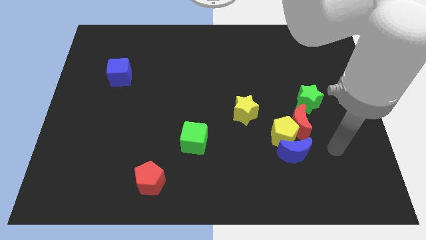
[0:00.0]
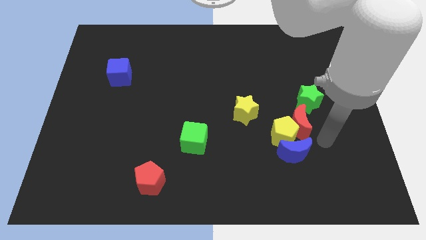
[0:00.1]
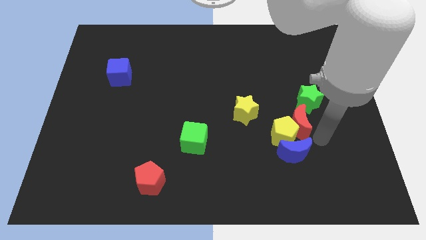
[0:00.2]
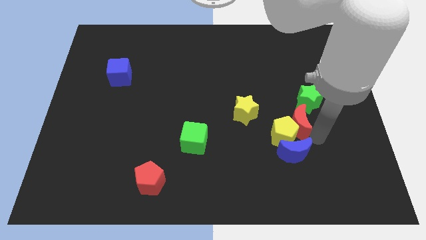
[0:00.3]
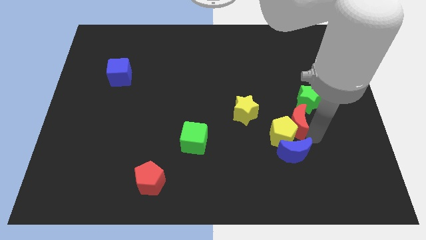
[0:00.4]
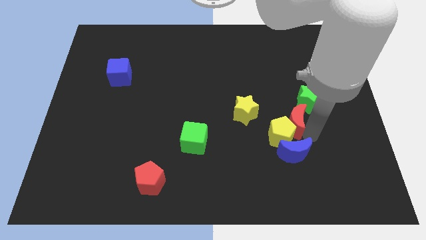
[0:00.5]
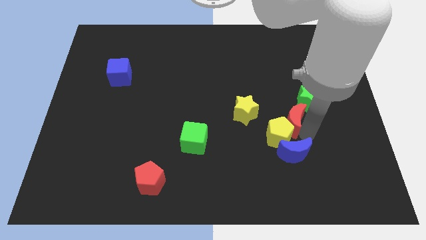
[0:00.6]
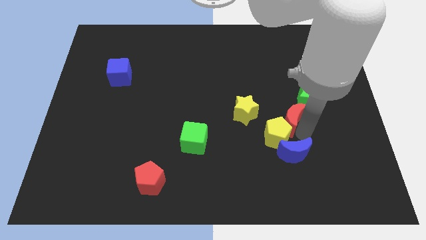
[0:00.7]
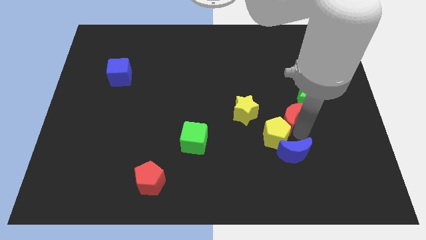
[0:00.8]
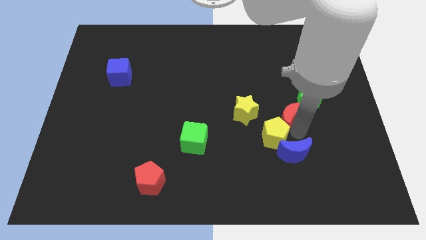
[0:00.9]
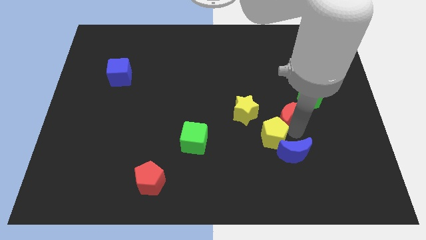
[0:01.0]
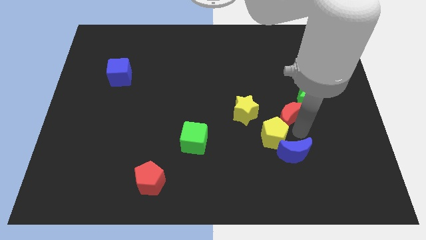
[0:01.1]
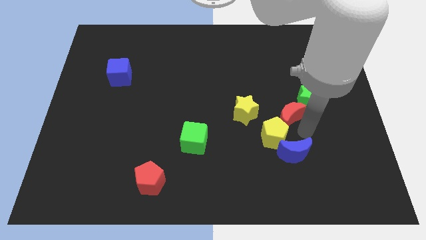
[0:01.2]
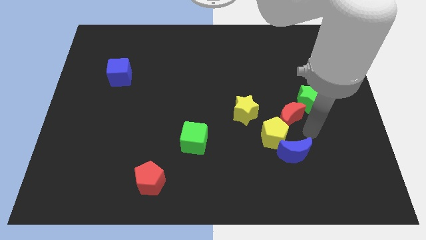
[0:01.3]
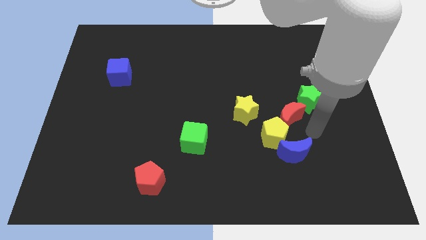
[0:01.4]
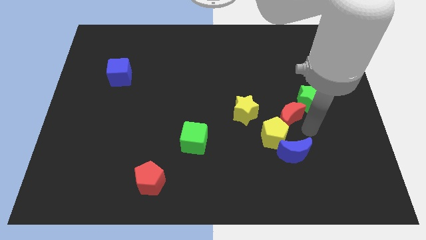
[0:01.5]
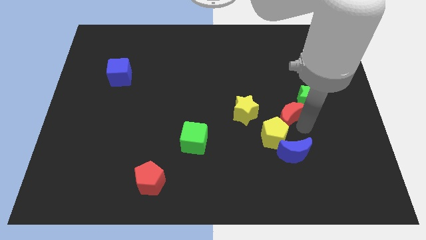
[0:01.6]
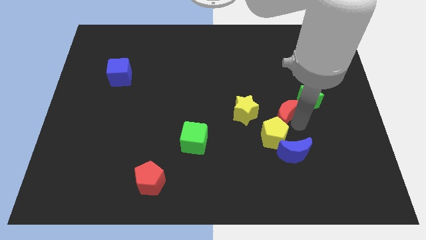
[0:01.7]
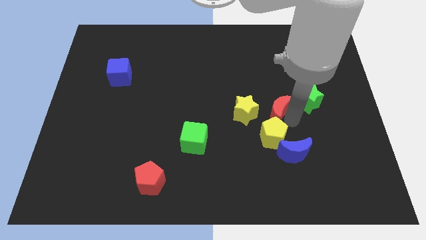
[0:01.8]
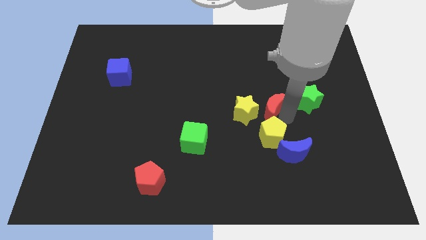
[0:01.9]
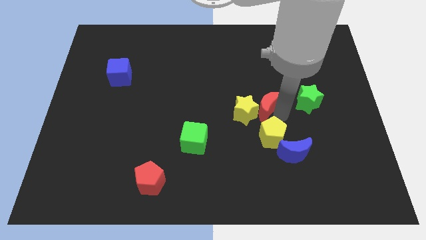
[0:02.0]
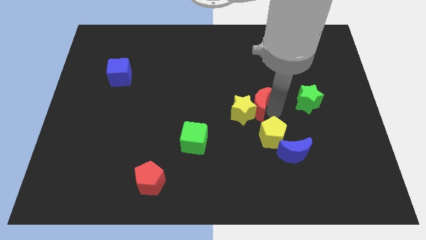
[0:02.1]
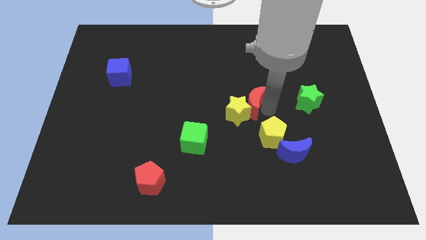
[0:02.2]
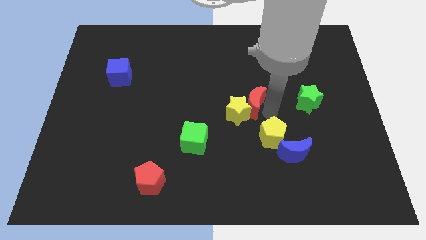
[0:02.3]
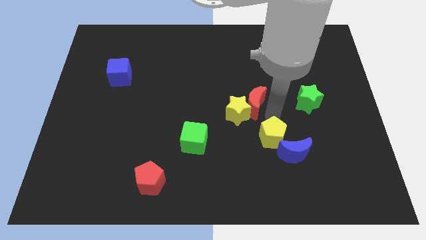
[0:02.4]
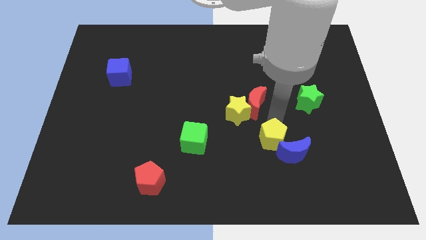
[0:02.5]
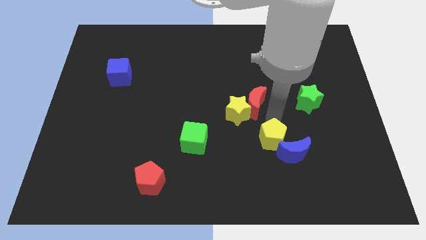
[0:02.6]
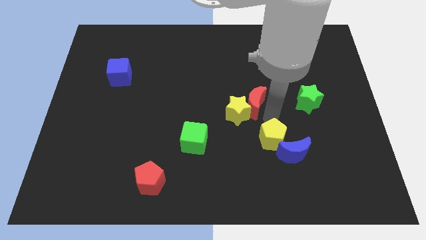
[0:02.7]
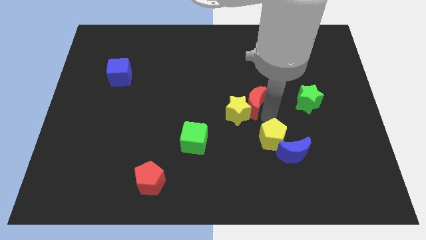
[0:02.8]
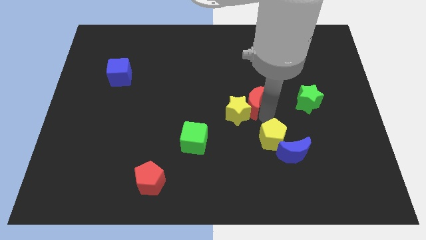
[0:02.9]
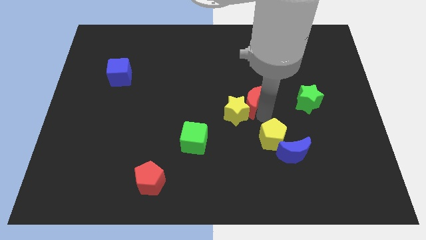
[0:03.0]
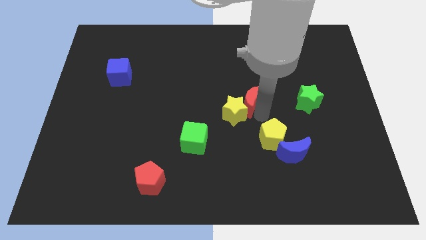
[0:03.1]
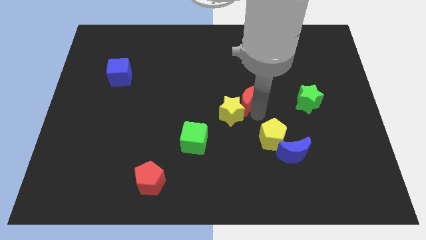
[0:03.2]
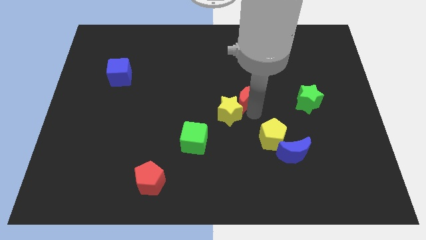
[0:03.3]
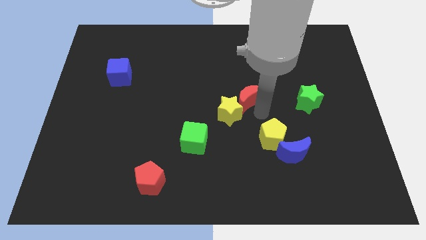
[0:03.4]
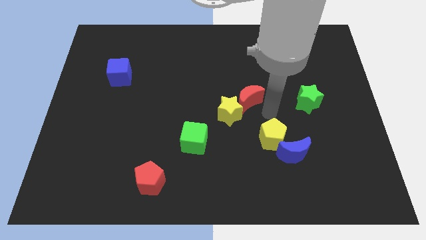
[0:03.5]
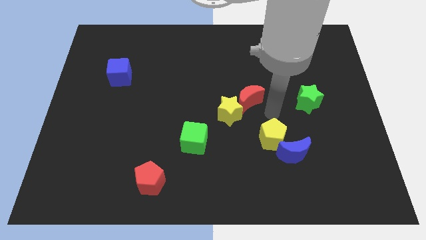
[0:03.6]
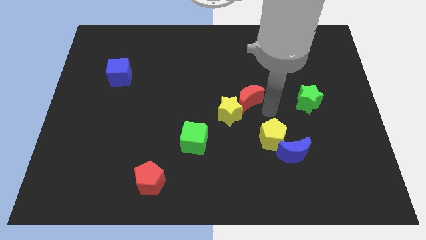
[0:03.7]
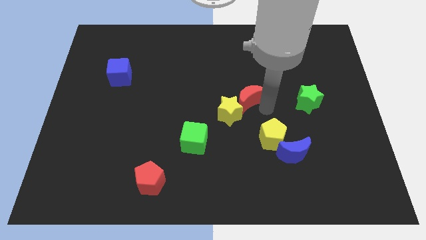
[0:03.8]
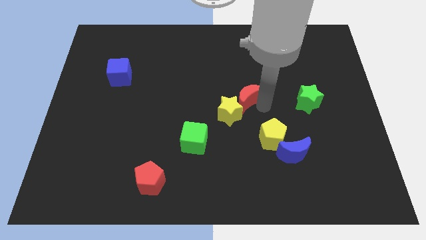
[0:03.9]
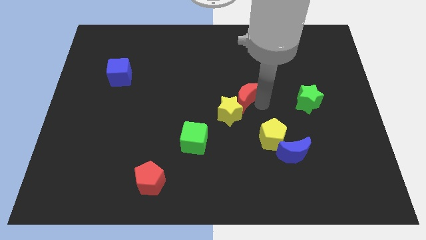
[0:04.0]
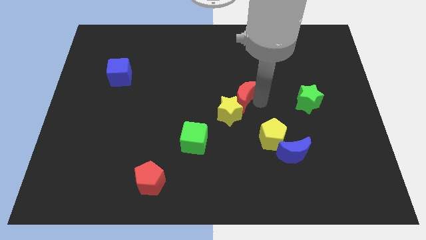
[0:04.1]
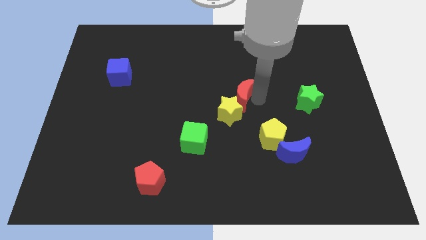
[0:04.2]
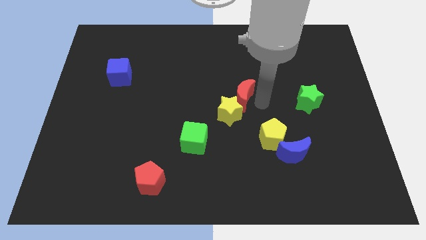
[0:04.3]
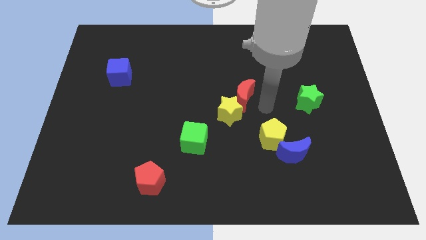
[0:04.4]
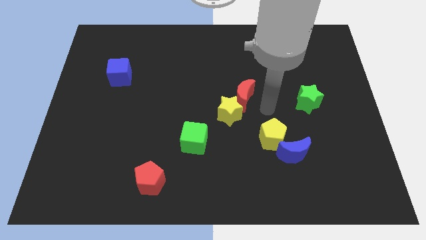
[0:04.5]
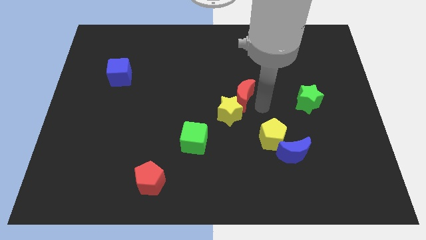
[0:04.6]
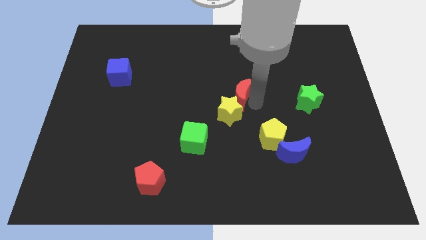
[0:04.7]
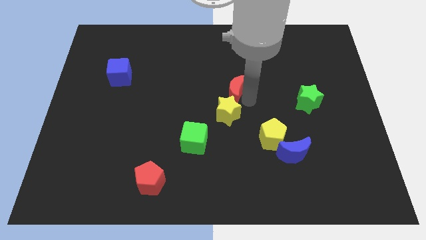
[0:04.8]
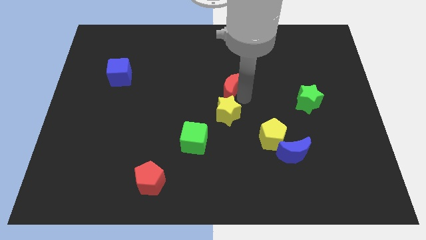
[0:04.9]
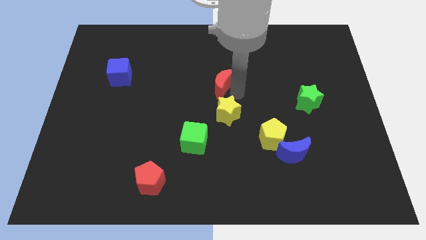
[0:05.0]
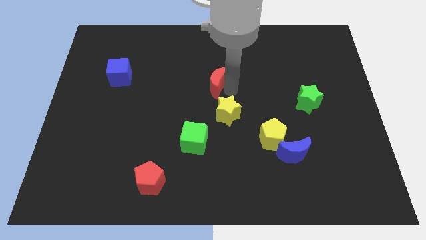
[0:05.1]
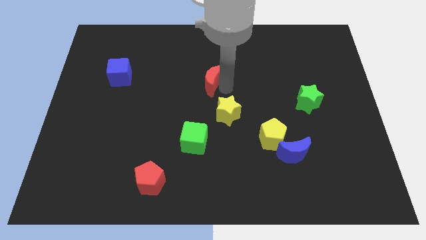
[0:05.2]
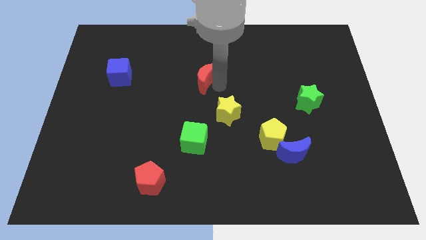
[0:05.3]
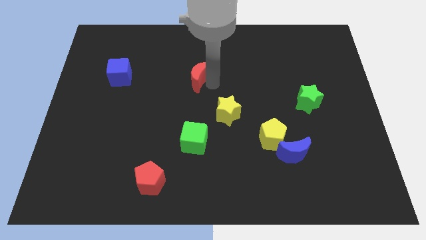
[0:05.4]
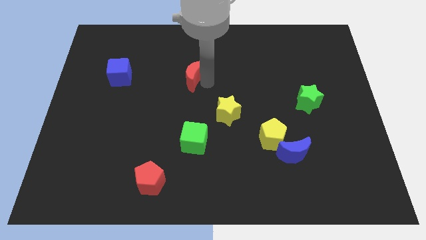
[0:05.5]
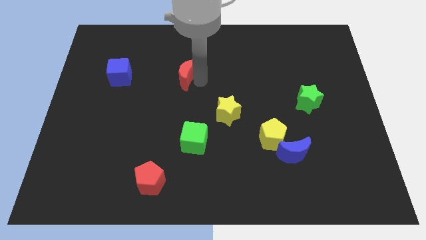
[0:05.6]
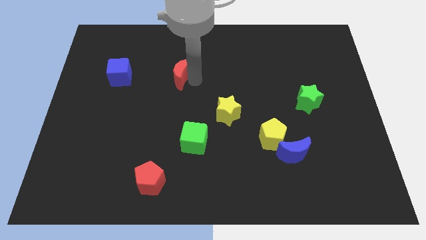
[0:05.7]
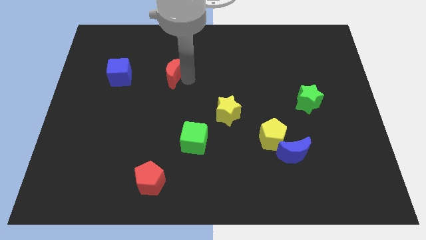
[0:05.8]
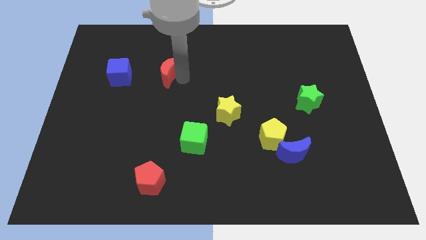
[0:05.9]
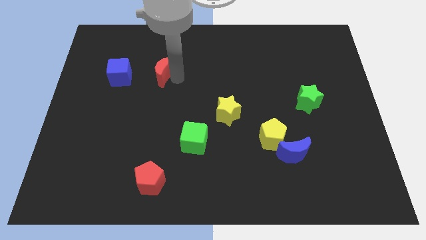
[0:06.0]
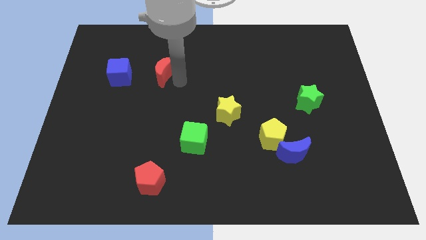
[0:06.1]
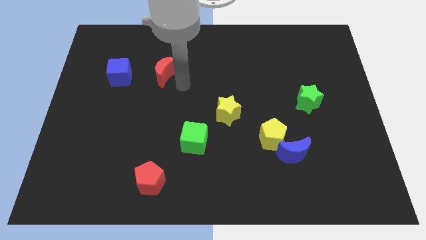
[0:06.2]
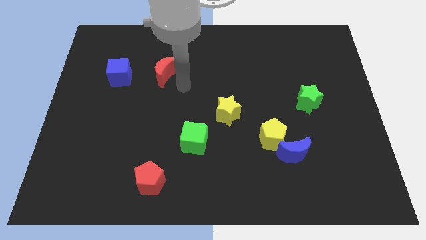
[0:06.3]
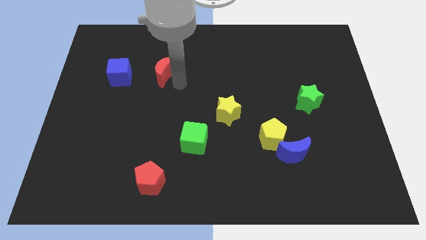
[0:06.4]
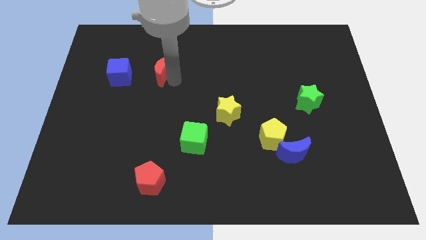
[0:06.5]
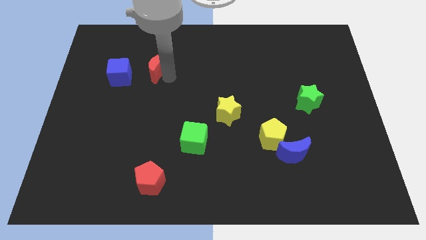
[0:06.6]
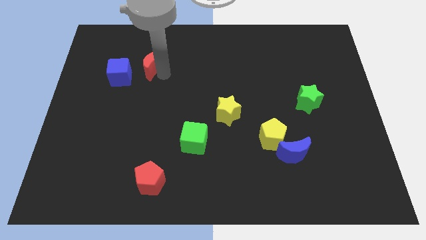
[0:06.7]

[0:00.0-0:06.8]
move the red moon to the top right of the blue cube

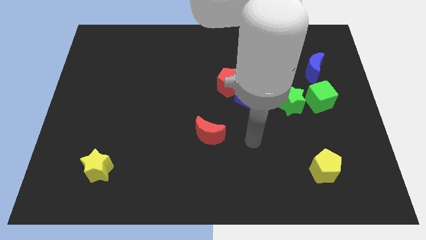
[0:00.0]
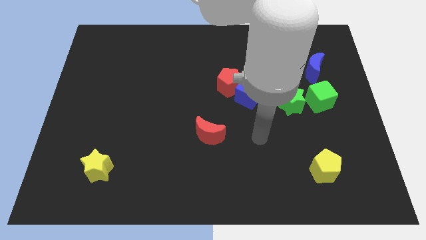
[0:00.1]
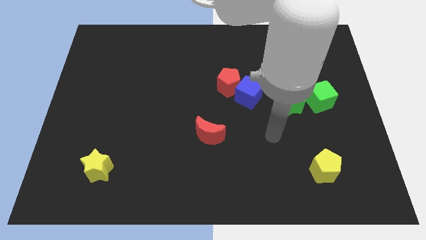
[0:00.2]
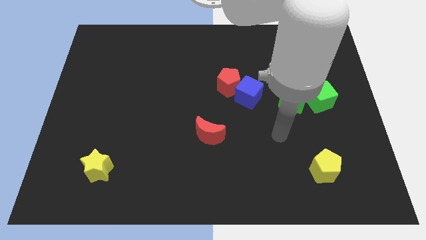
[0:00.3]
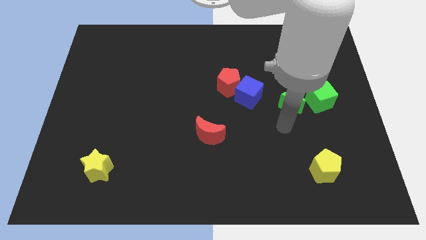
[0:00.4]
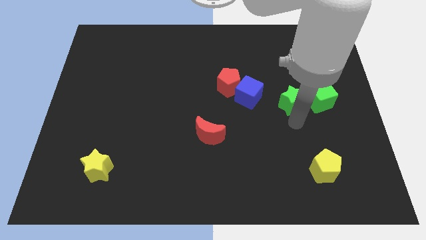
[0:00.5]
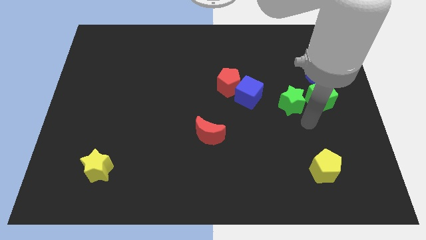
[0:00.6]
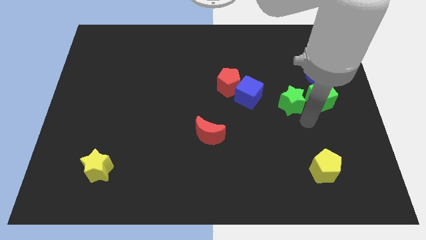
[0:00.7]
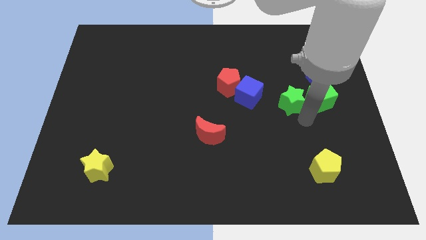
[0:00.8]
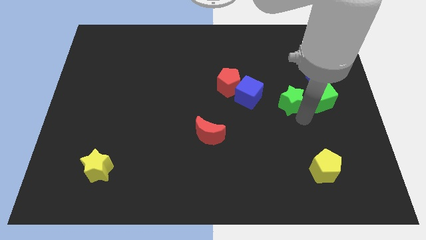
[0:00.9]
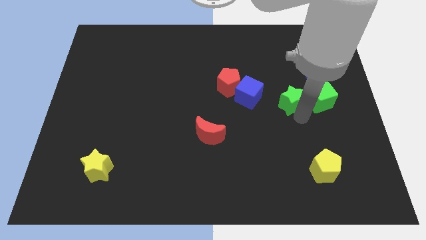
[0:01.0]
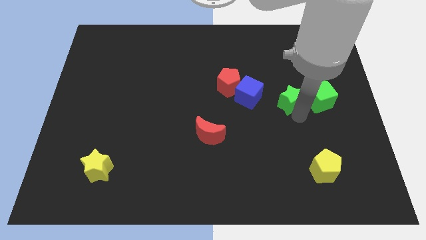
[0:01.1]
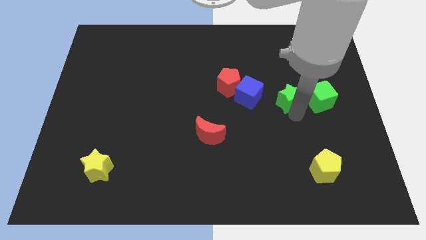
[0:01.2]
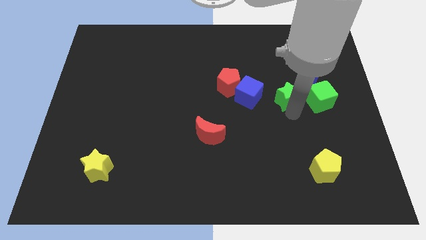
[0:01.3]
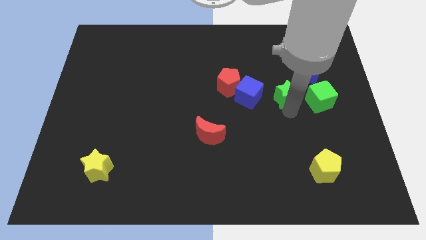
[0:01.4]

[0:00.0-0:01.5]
put the green star to the right of the red pentagon
